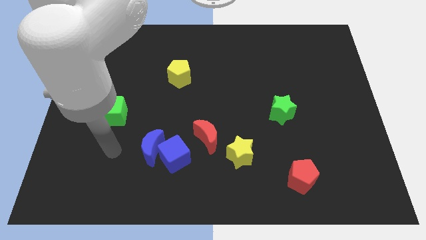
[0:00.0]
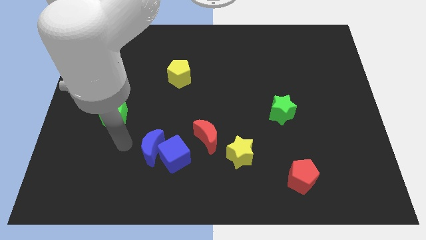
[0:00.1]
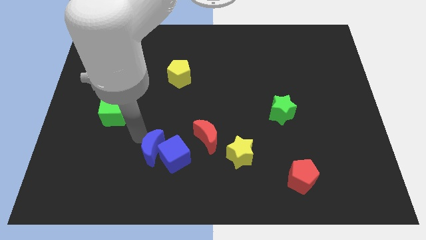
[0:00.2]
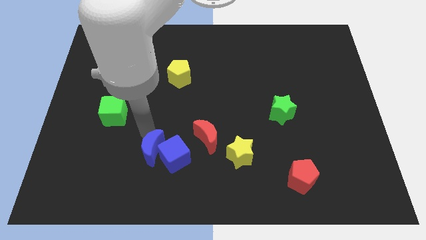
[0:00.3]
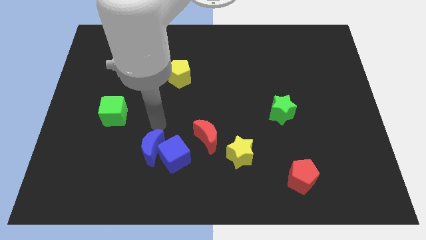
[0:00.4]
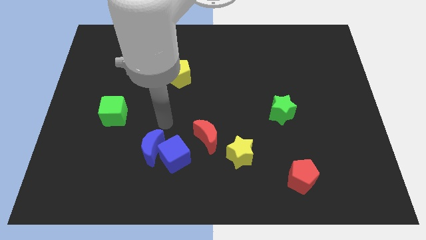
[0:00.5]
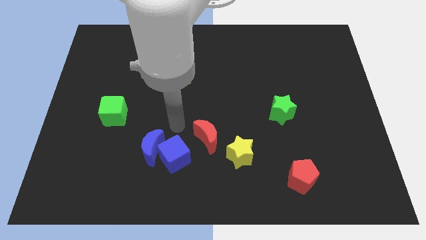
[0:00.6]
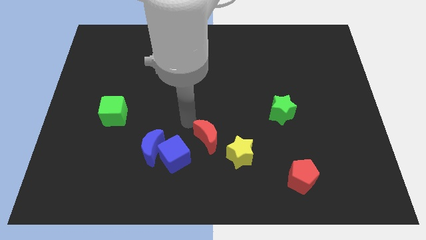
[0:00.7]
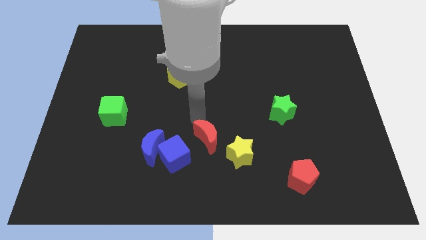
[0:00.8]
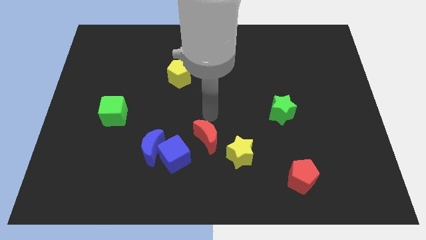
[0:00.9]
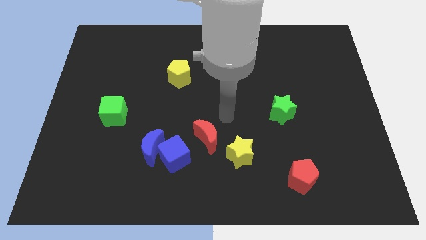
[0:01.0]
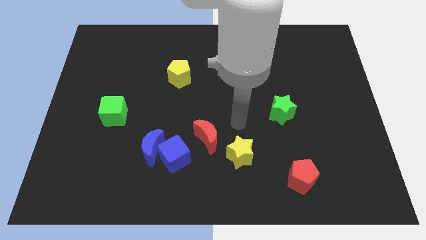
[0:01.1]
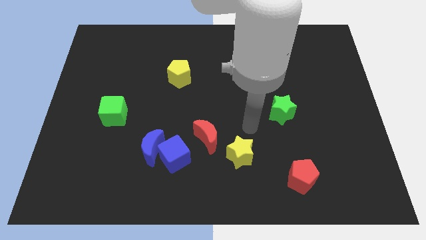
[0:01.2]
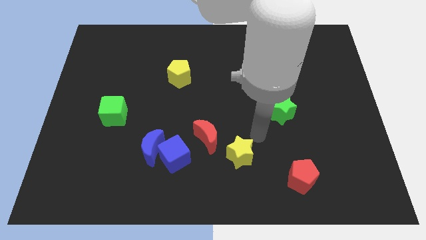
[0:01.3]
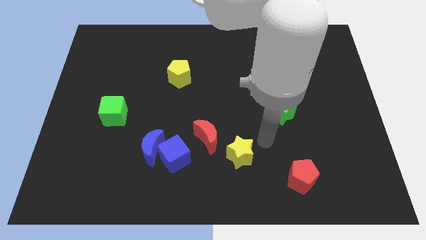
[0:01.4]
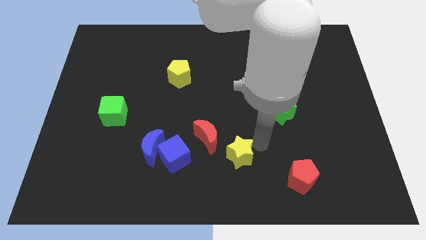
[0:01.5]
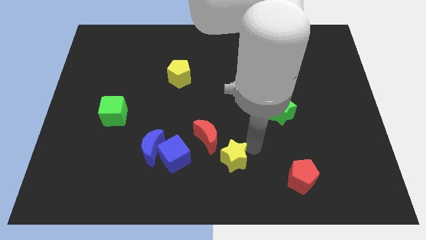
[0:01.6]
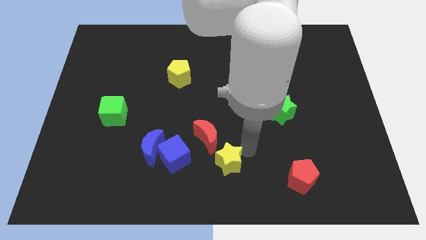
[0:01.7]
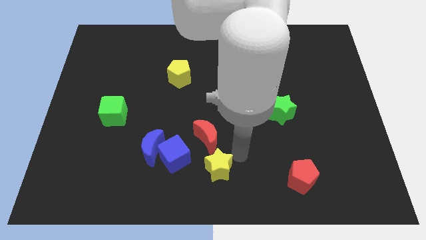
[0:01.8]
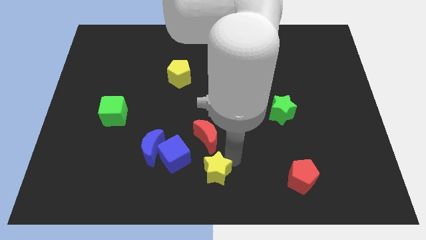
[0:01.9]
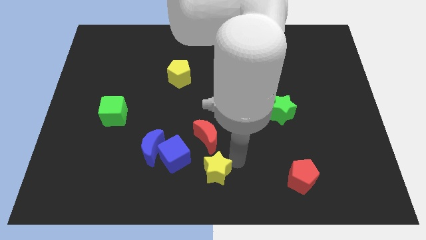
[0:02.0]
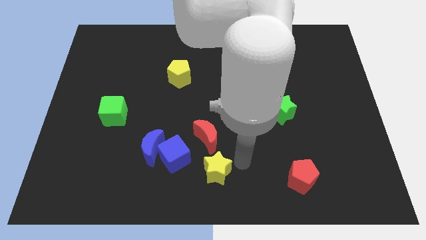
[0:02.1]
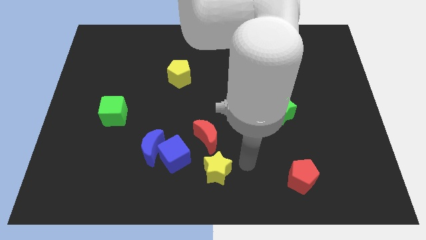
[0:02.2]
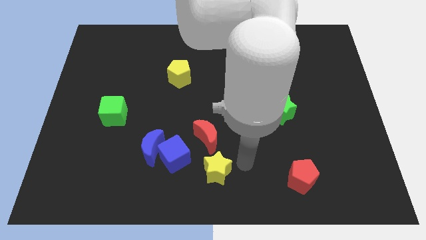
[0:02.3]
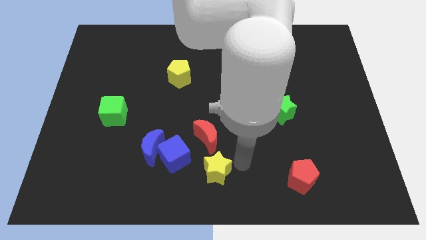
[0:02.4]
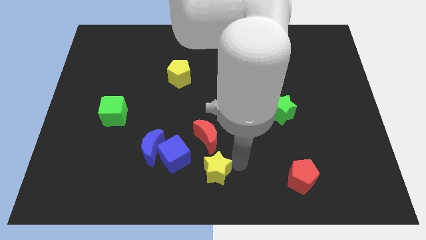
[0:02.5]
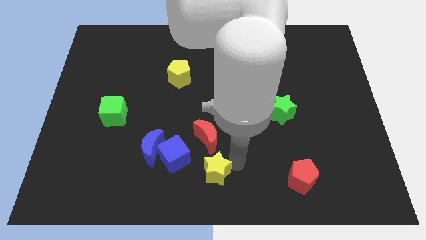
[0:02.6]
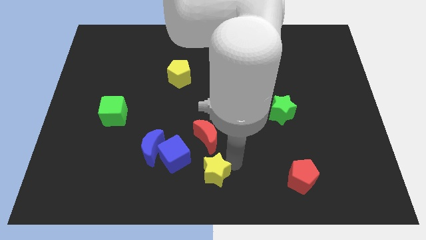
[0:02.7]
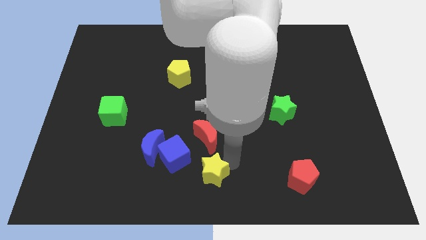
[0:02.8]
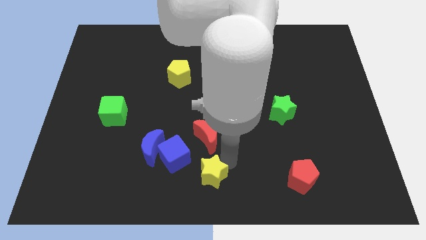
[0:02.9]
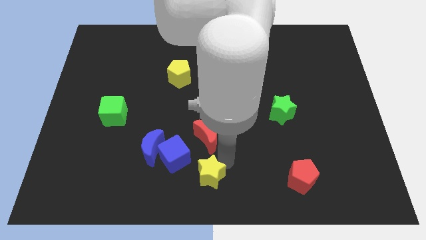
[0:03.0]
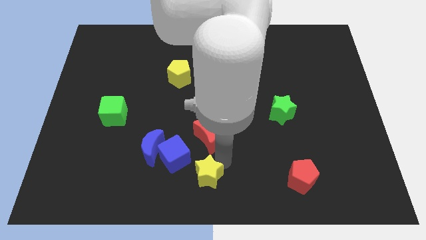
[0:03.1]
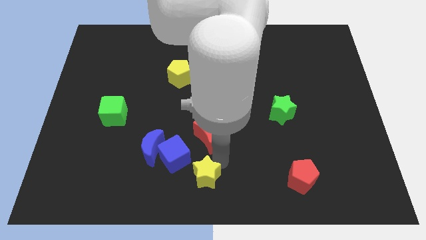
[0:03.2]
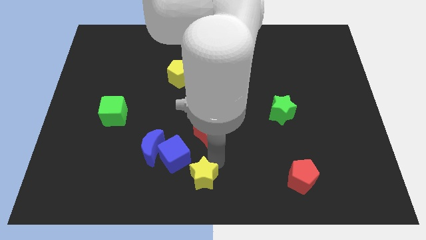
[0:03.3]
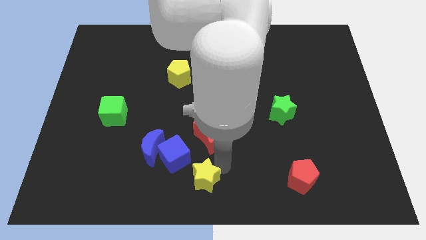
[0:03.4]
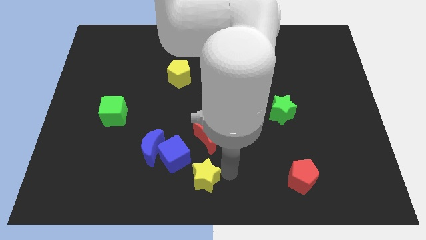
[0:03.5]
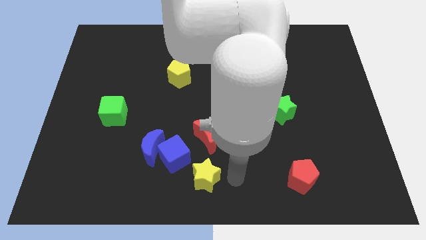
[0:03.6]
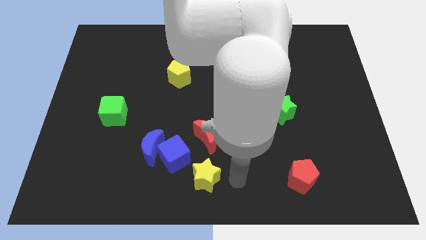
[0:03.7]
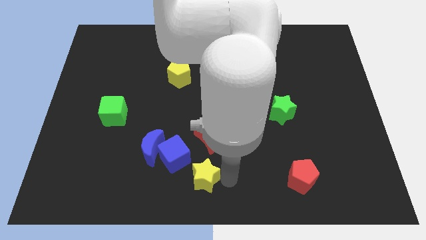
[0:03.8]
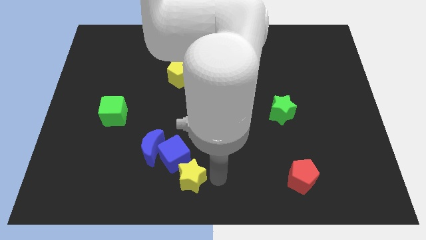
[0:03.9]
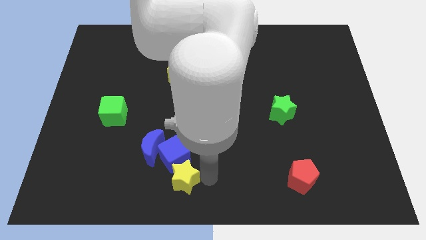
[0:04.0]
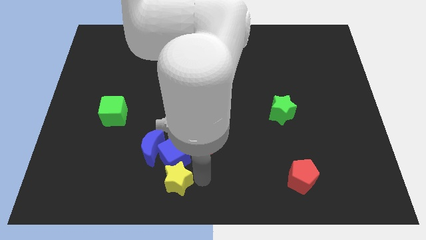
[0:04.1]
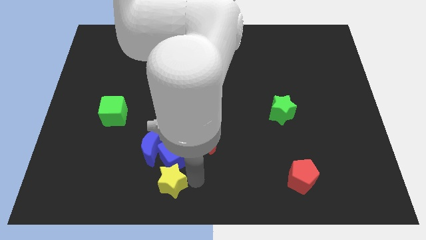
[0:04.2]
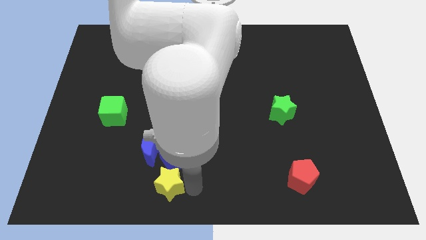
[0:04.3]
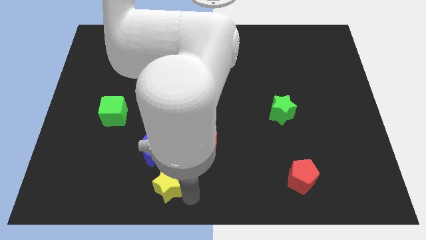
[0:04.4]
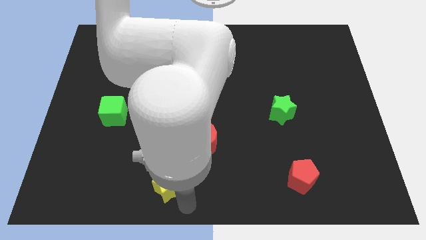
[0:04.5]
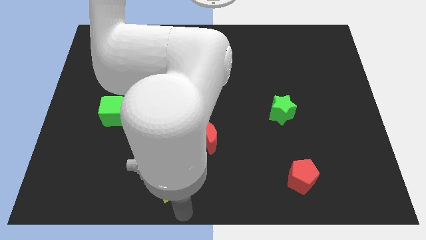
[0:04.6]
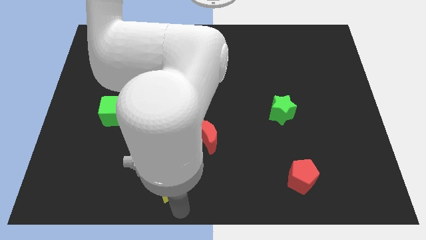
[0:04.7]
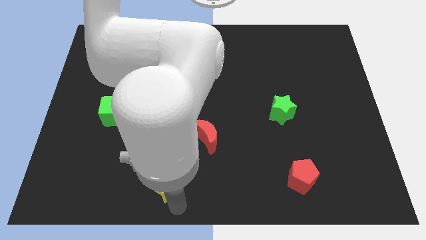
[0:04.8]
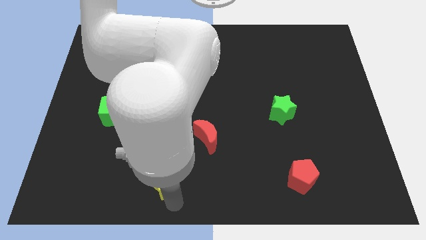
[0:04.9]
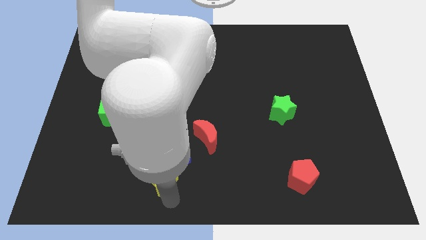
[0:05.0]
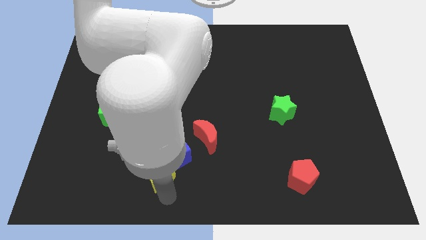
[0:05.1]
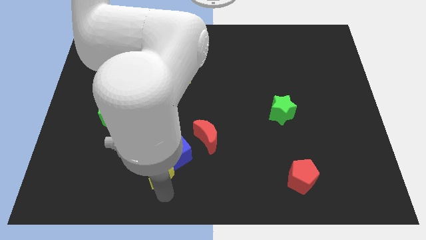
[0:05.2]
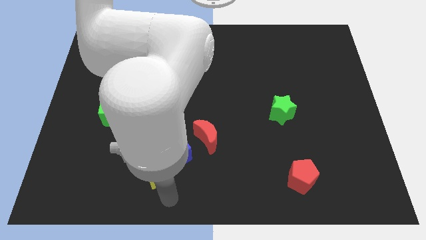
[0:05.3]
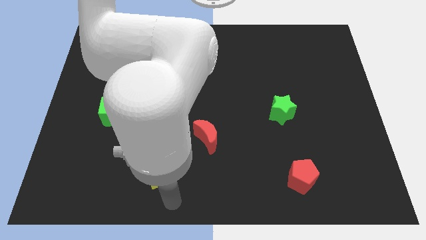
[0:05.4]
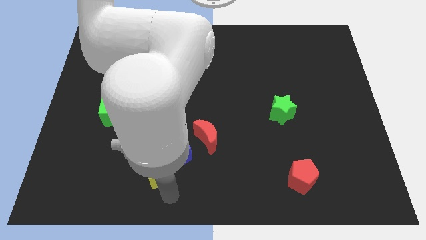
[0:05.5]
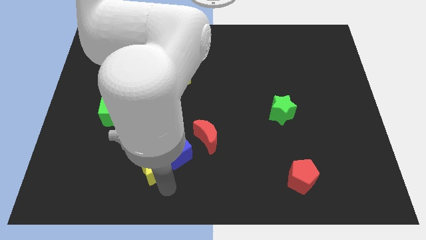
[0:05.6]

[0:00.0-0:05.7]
push the yellow star towards the blue moon
